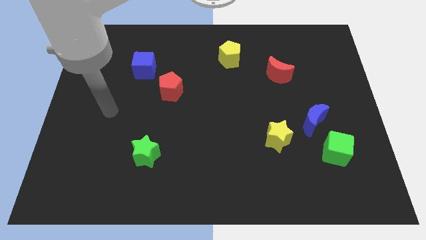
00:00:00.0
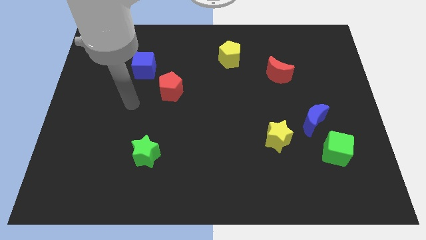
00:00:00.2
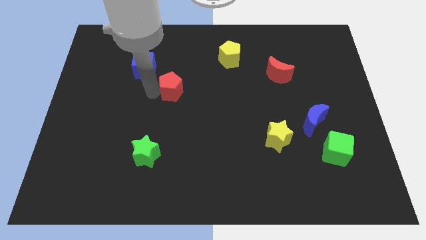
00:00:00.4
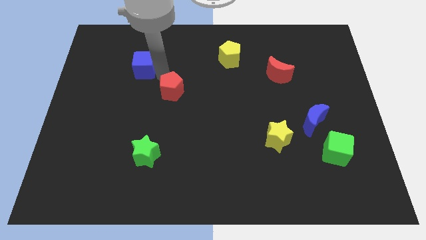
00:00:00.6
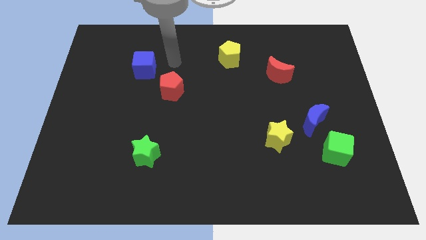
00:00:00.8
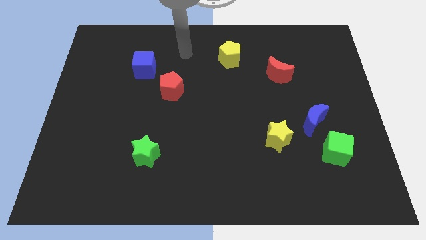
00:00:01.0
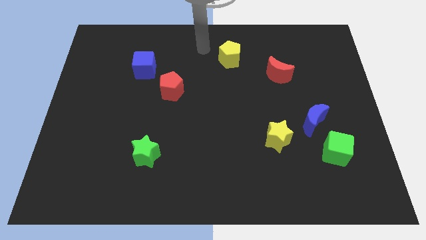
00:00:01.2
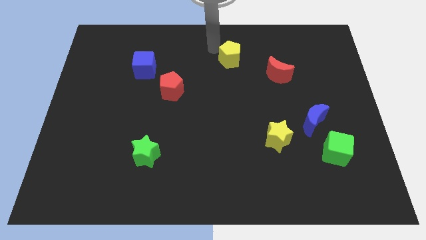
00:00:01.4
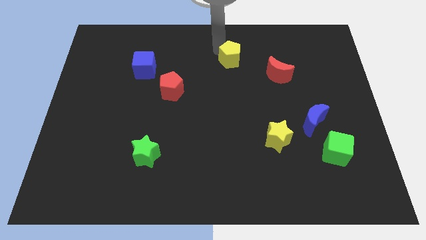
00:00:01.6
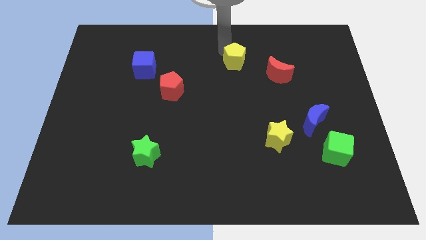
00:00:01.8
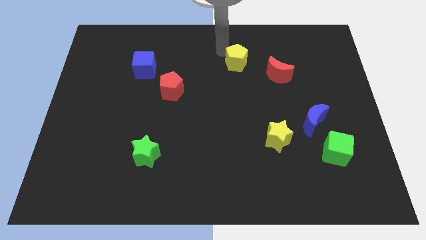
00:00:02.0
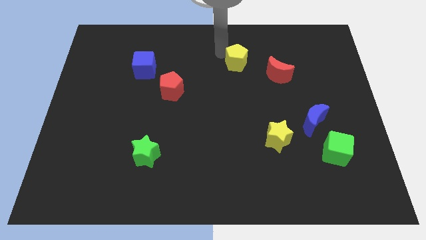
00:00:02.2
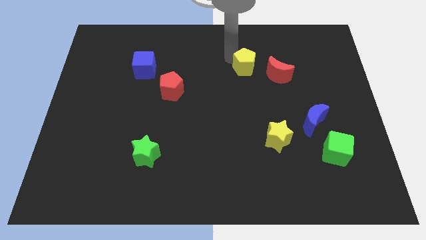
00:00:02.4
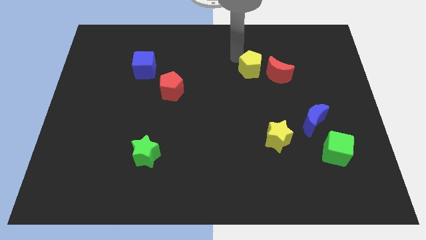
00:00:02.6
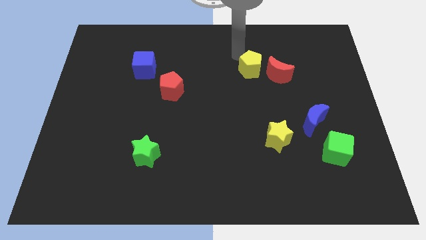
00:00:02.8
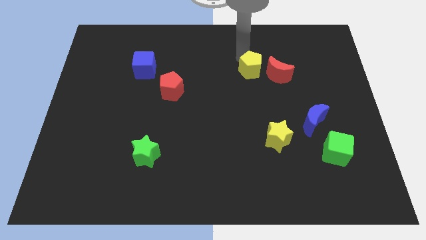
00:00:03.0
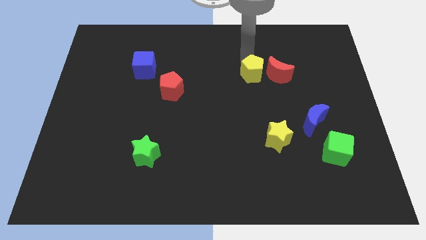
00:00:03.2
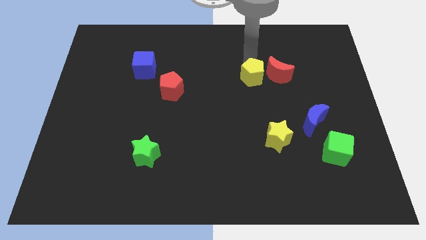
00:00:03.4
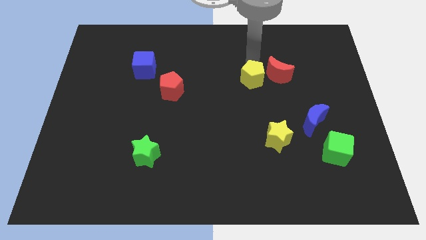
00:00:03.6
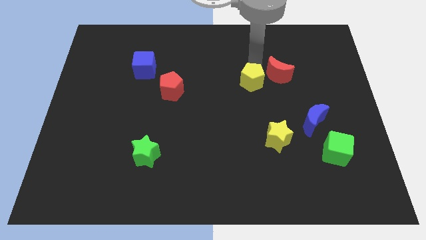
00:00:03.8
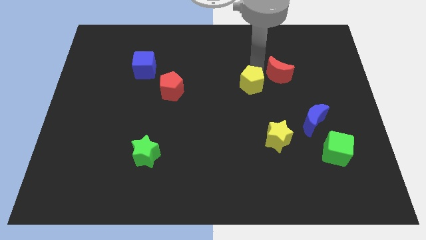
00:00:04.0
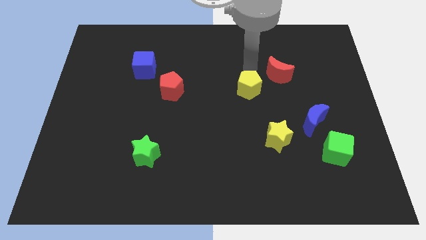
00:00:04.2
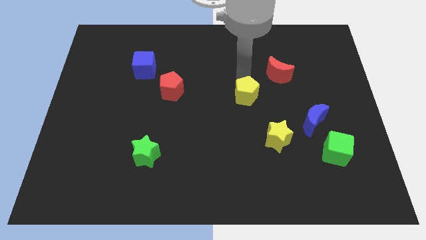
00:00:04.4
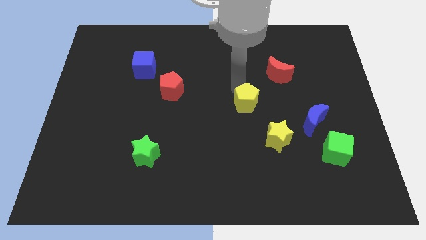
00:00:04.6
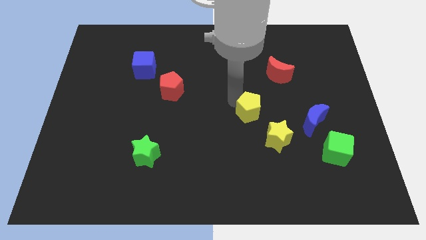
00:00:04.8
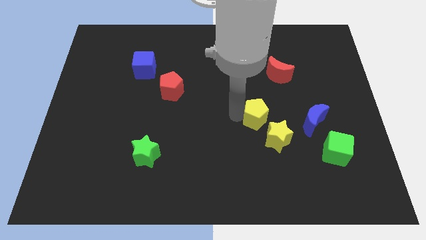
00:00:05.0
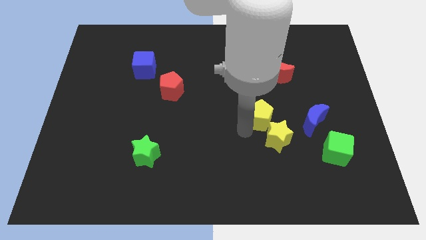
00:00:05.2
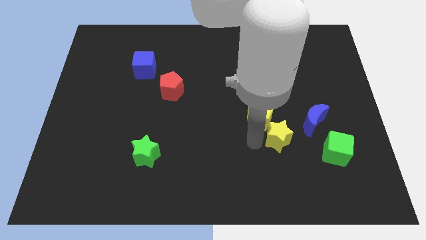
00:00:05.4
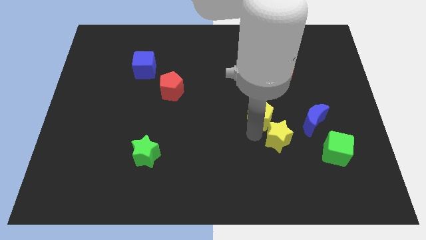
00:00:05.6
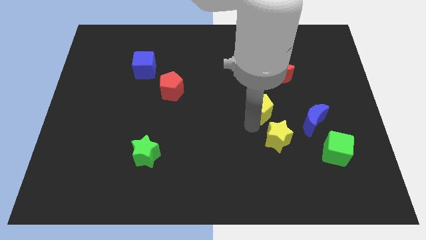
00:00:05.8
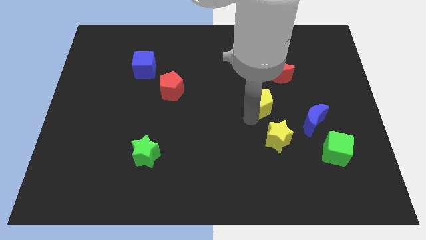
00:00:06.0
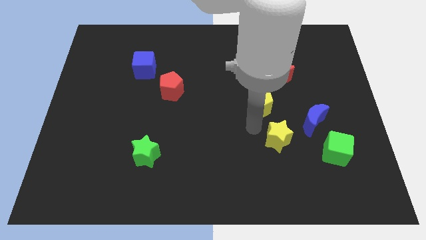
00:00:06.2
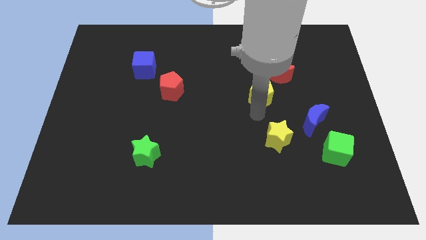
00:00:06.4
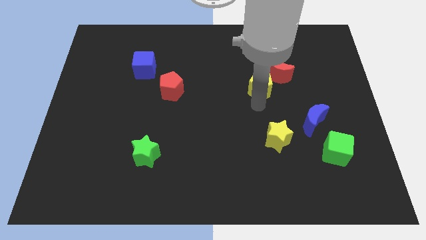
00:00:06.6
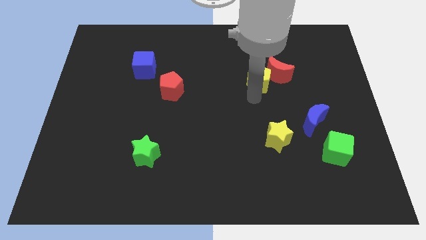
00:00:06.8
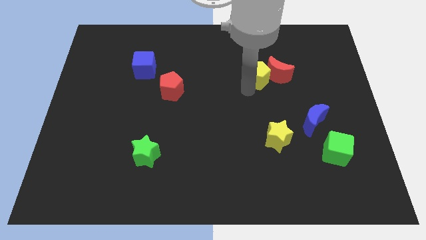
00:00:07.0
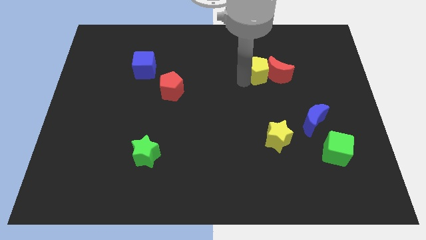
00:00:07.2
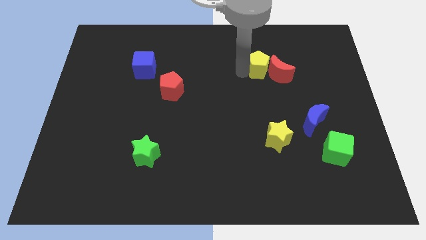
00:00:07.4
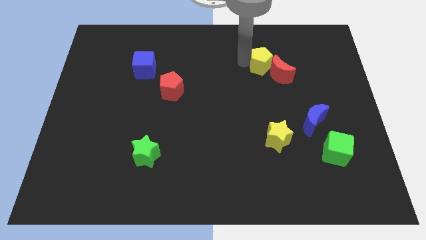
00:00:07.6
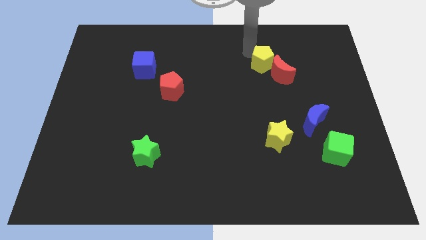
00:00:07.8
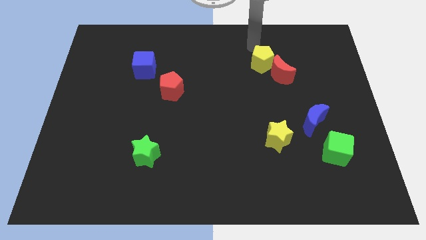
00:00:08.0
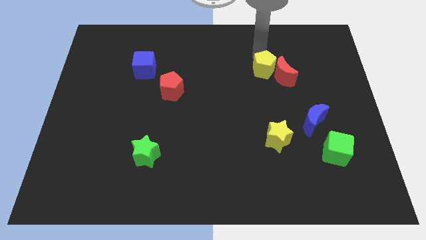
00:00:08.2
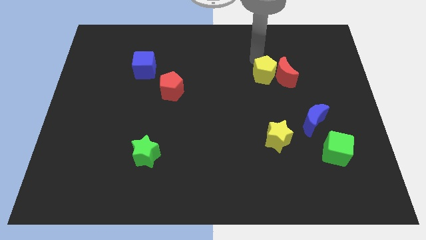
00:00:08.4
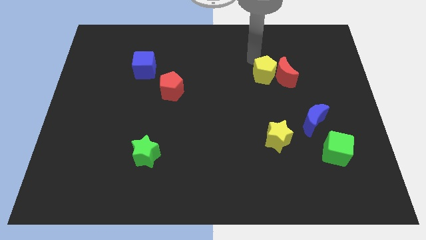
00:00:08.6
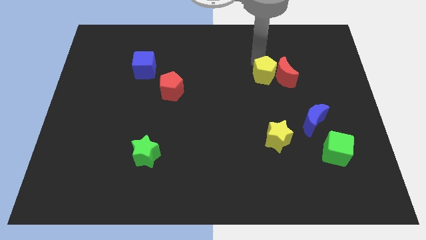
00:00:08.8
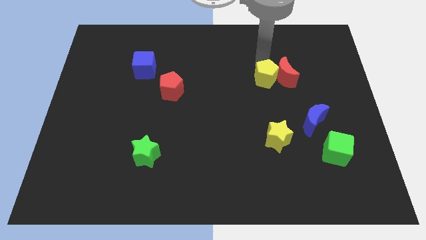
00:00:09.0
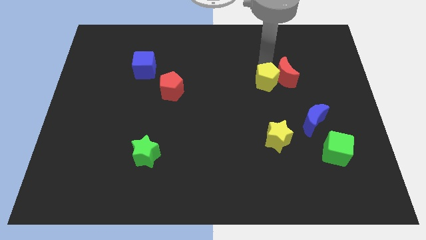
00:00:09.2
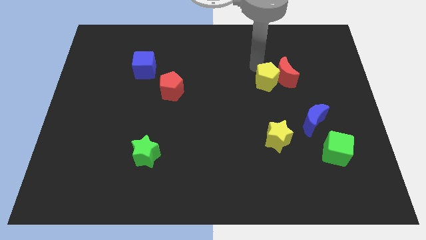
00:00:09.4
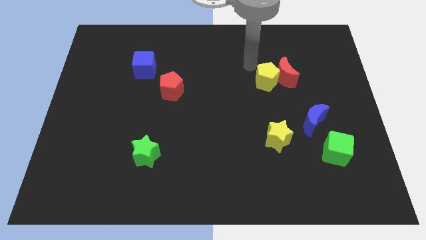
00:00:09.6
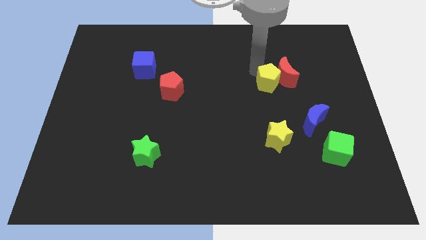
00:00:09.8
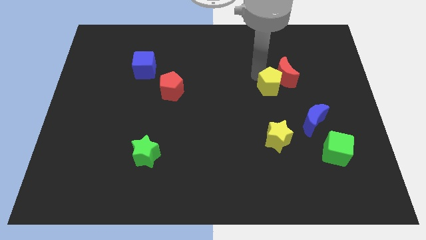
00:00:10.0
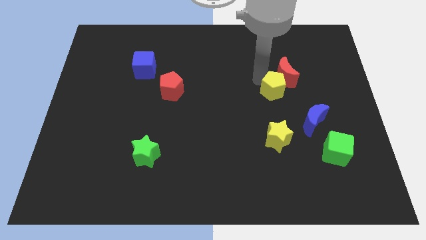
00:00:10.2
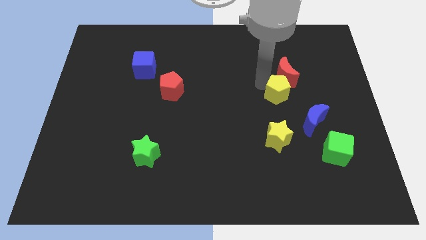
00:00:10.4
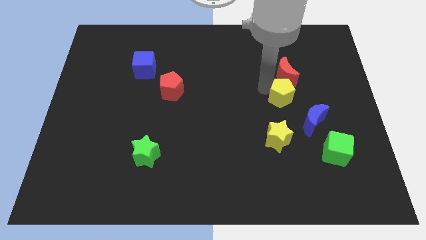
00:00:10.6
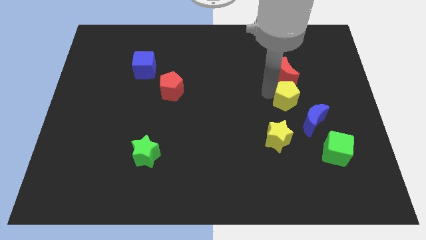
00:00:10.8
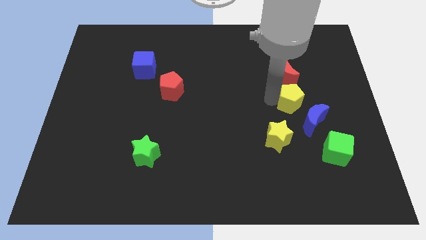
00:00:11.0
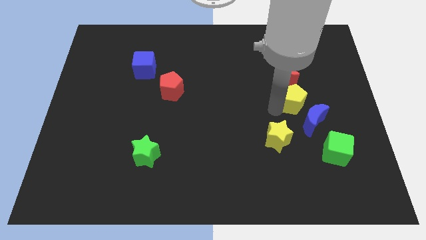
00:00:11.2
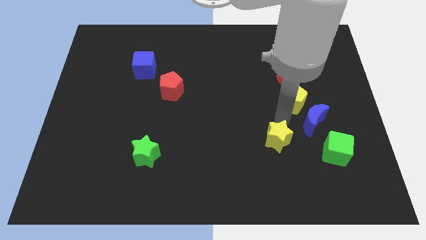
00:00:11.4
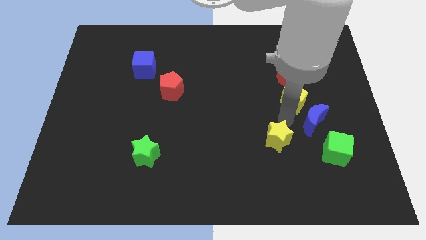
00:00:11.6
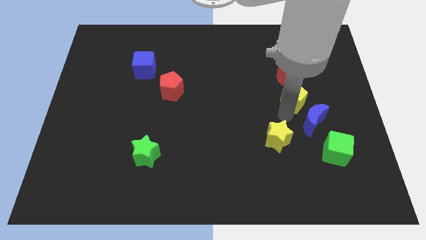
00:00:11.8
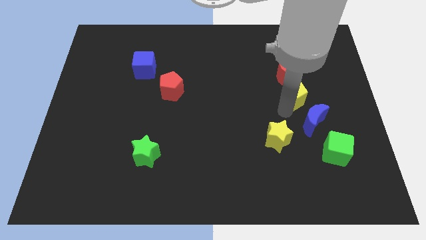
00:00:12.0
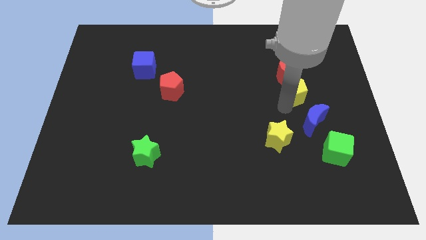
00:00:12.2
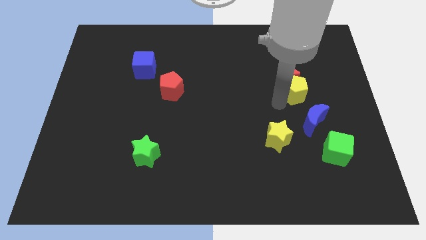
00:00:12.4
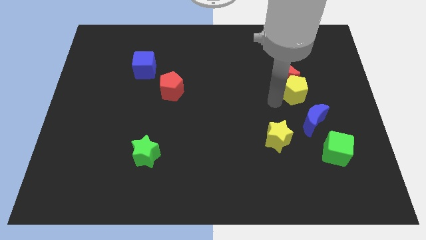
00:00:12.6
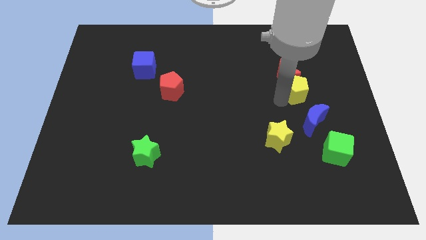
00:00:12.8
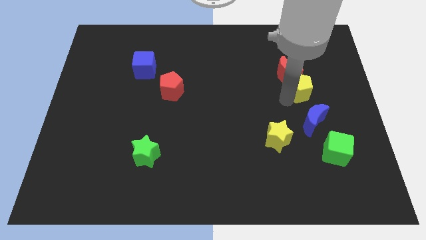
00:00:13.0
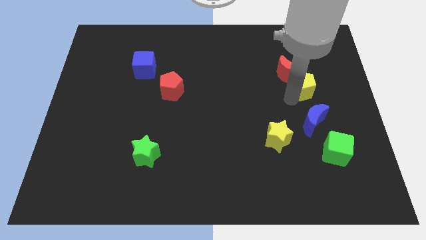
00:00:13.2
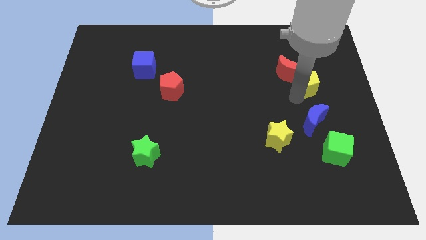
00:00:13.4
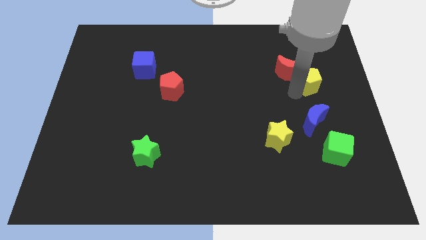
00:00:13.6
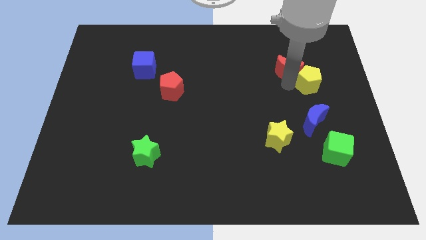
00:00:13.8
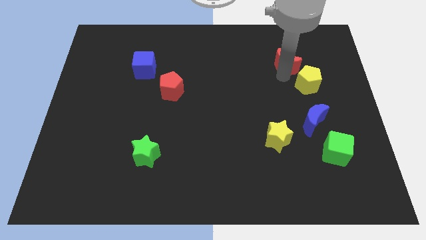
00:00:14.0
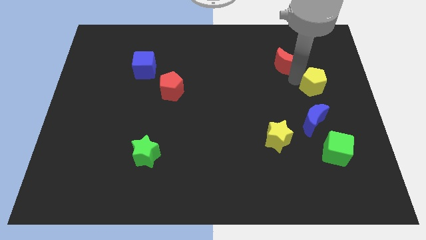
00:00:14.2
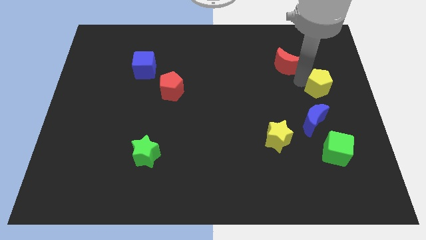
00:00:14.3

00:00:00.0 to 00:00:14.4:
move the yellow pentagon to the right side
